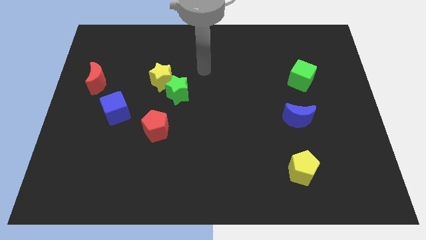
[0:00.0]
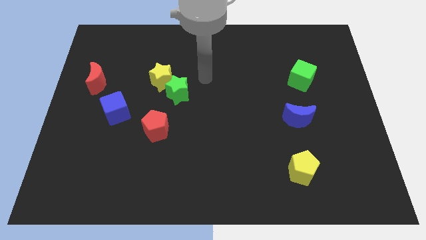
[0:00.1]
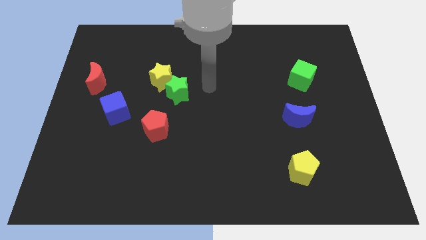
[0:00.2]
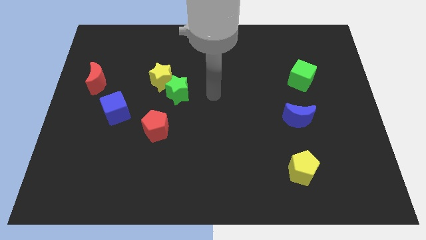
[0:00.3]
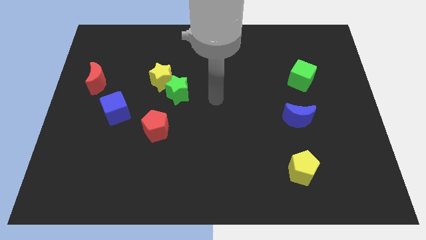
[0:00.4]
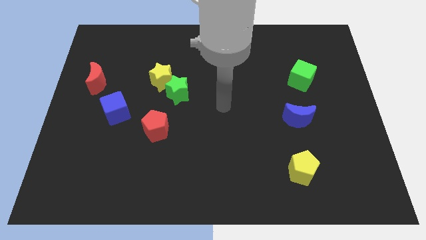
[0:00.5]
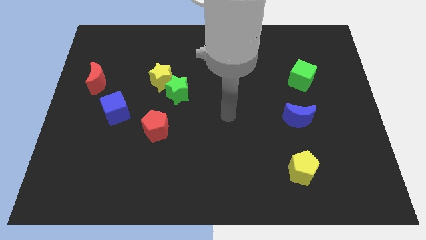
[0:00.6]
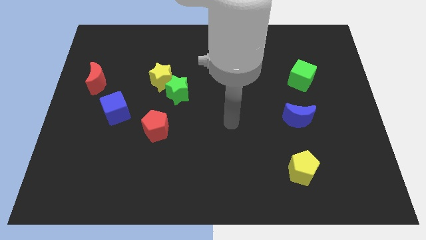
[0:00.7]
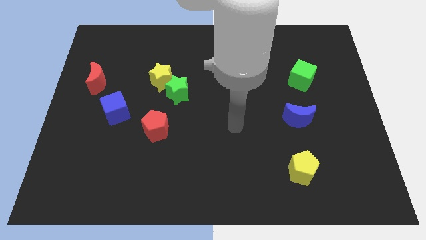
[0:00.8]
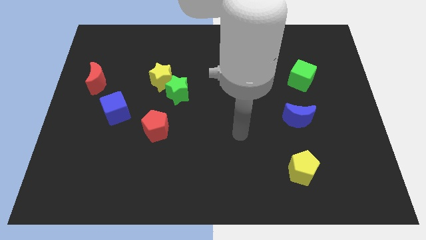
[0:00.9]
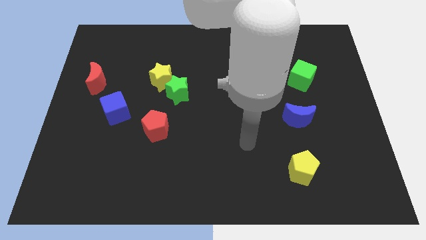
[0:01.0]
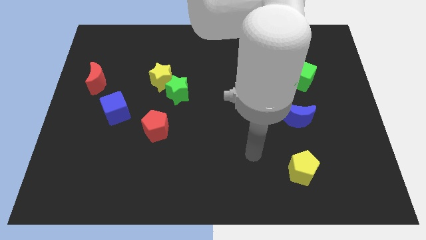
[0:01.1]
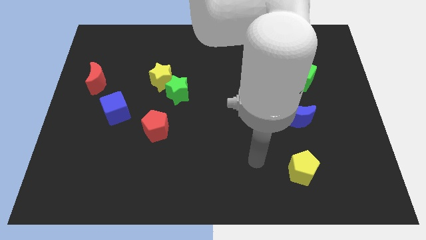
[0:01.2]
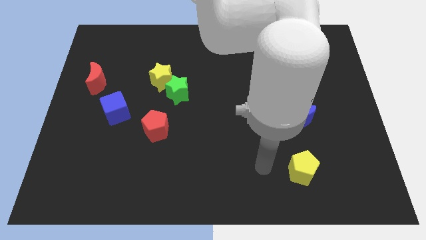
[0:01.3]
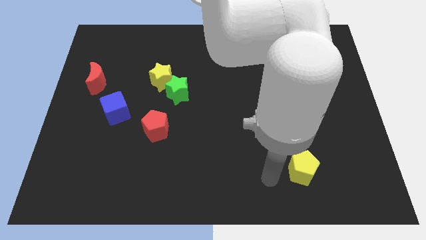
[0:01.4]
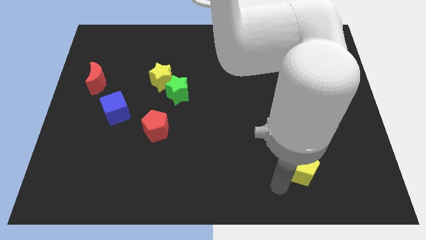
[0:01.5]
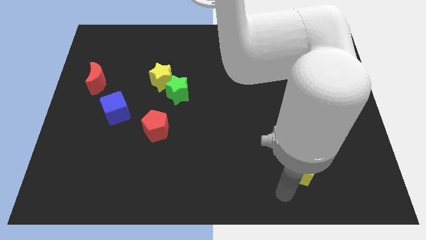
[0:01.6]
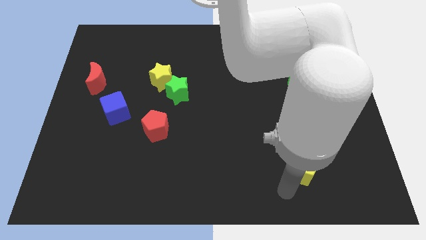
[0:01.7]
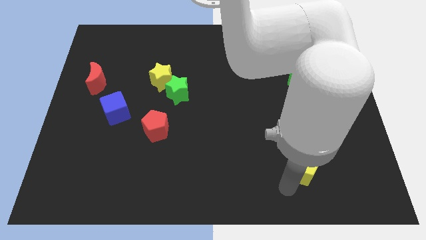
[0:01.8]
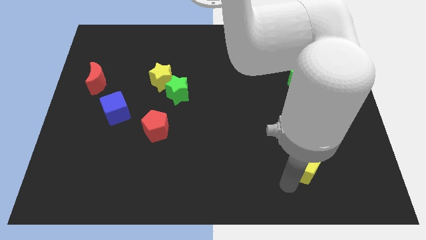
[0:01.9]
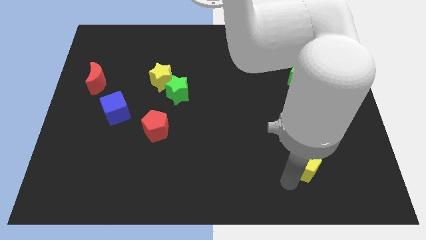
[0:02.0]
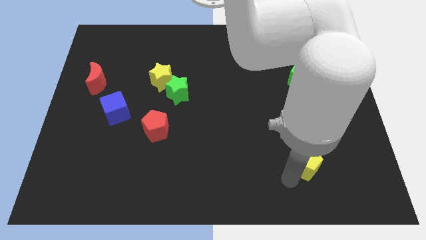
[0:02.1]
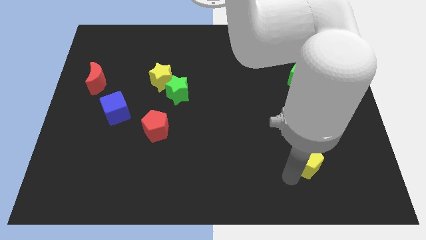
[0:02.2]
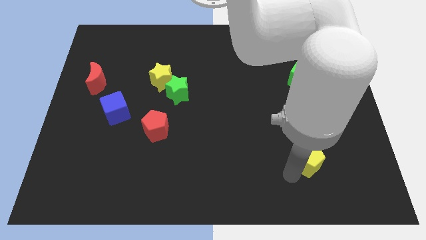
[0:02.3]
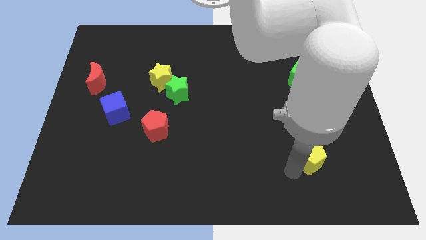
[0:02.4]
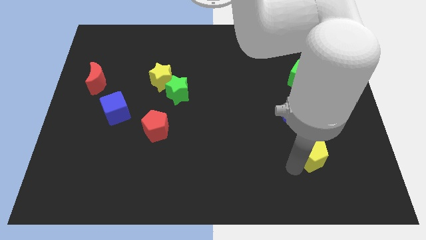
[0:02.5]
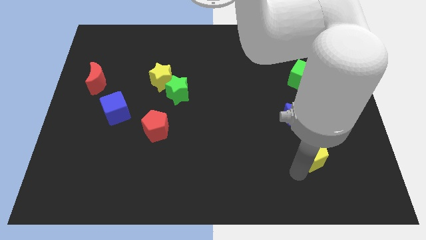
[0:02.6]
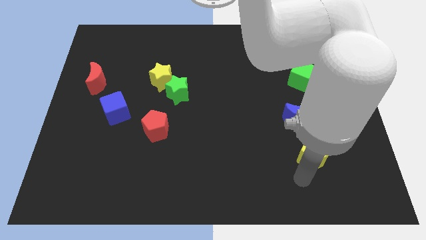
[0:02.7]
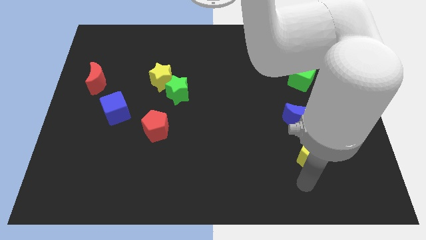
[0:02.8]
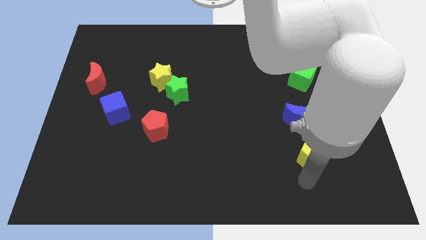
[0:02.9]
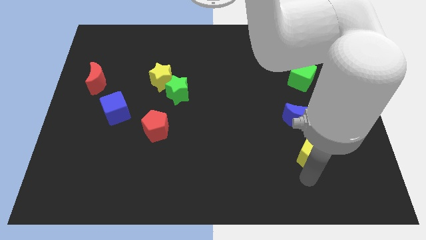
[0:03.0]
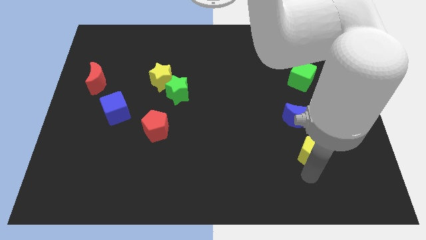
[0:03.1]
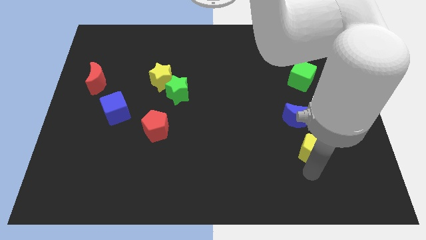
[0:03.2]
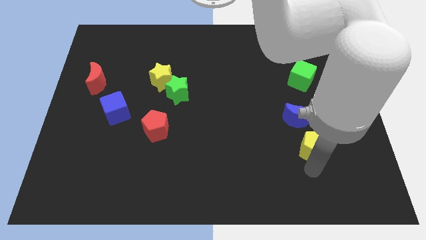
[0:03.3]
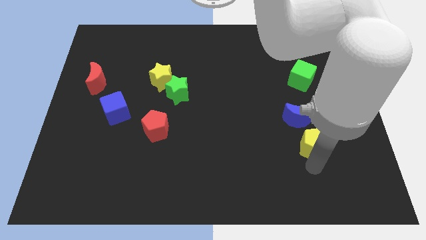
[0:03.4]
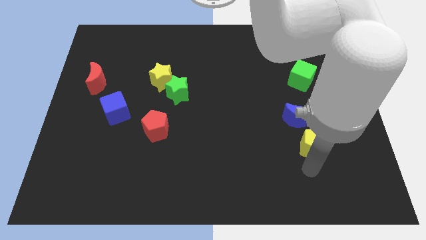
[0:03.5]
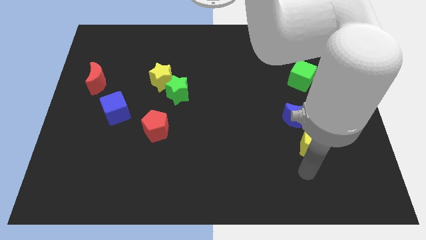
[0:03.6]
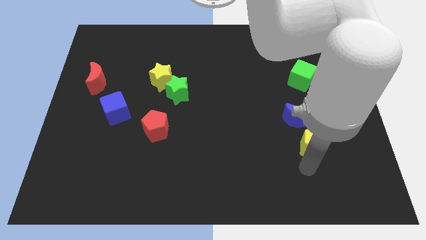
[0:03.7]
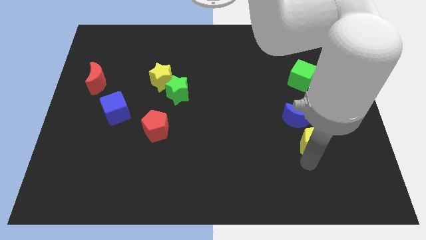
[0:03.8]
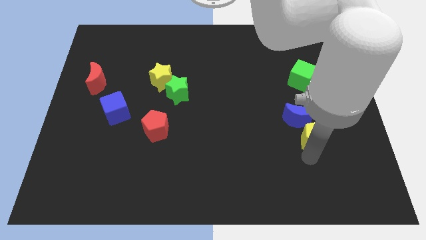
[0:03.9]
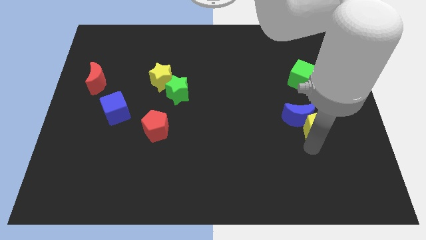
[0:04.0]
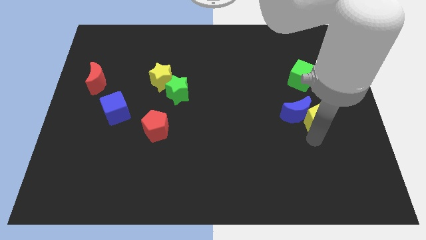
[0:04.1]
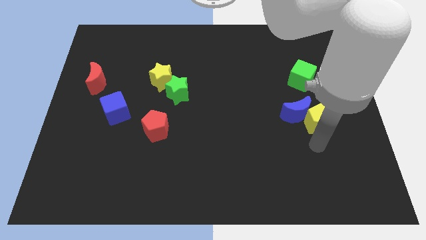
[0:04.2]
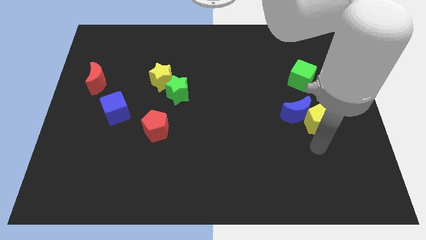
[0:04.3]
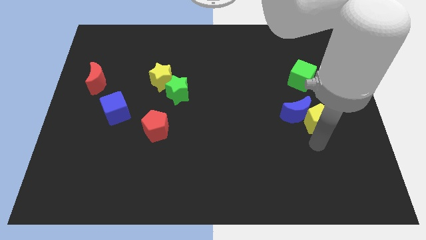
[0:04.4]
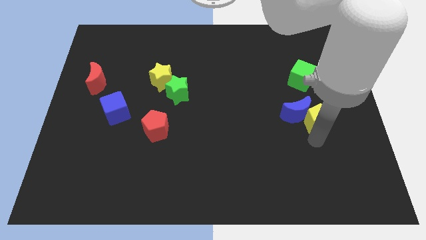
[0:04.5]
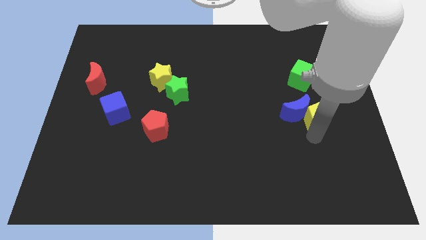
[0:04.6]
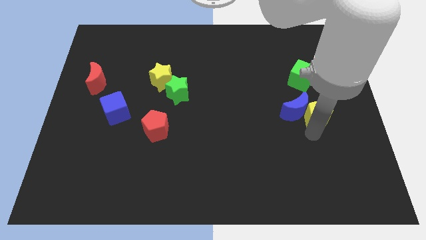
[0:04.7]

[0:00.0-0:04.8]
put the yellow pentagon to the top right of the blue moon

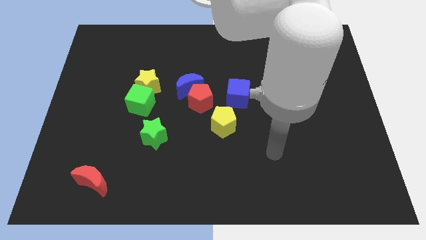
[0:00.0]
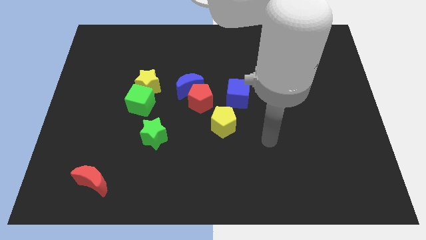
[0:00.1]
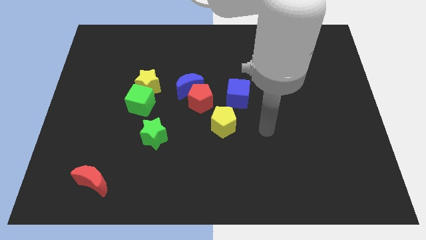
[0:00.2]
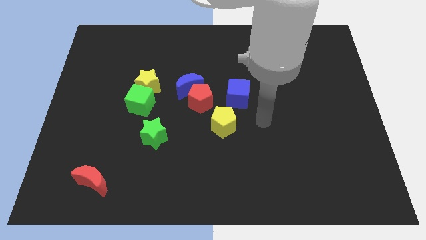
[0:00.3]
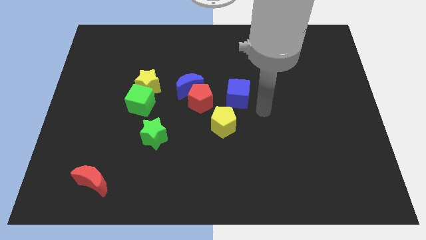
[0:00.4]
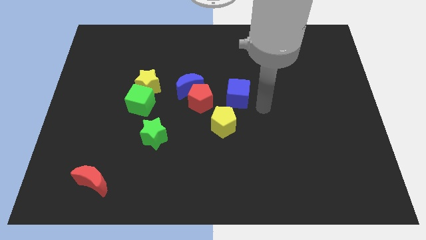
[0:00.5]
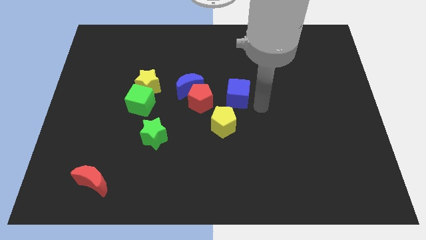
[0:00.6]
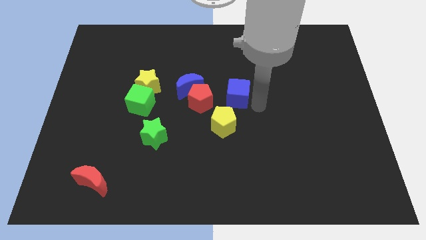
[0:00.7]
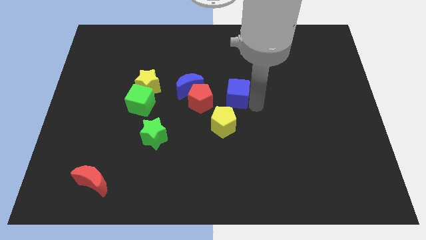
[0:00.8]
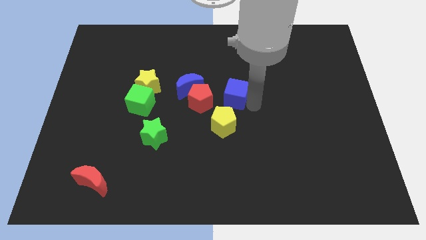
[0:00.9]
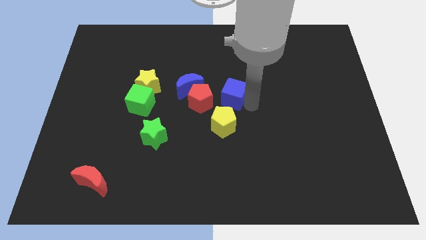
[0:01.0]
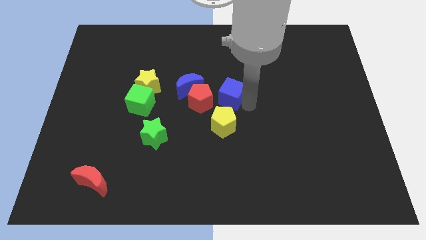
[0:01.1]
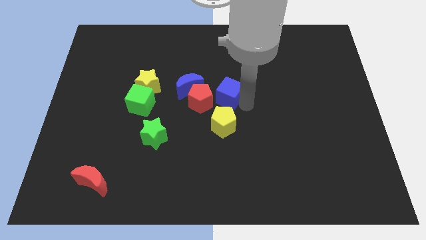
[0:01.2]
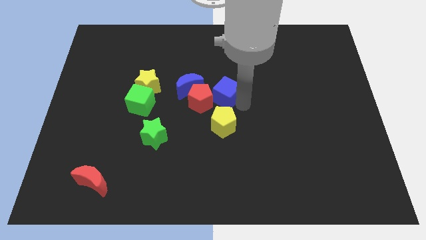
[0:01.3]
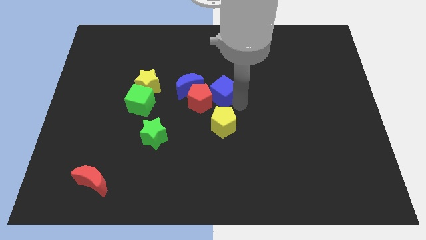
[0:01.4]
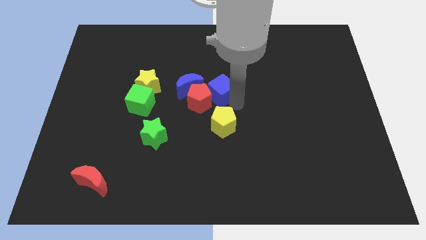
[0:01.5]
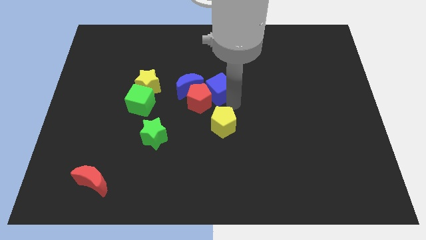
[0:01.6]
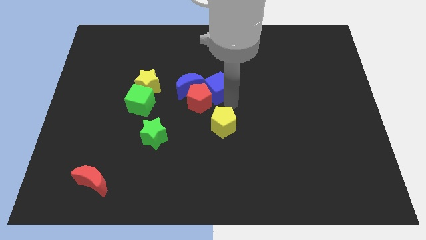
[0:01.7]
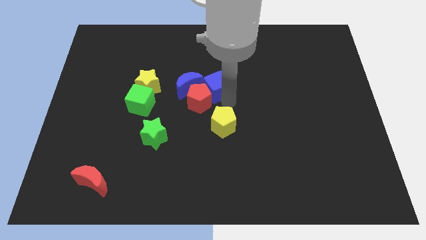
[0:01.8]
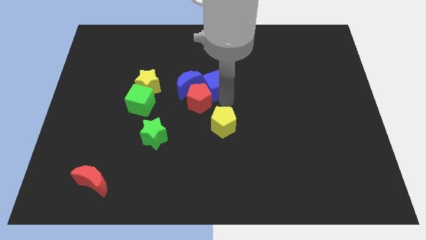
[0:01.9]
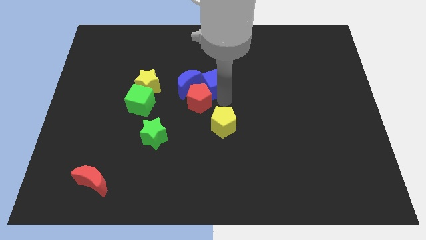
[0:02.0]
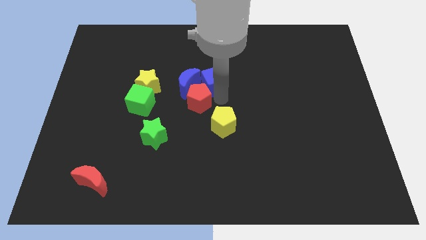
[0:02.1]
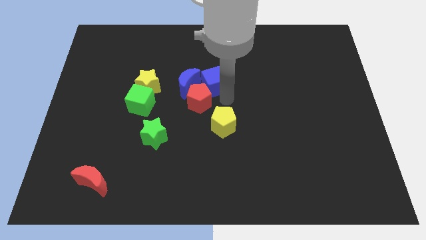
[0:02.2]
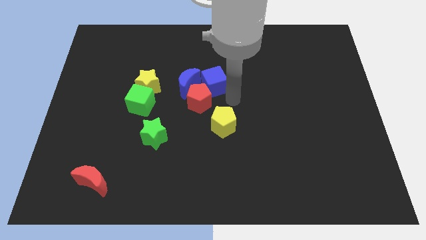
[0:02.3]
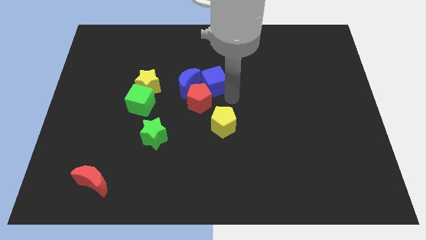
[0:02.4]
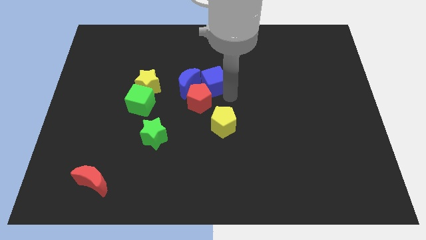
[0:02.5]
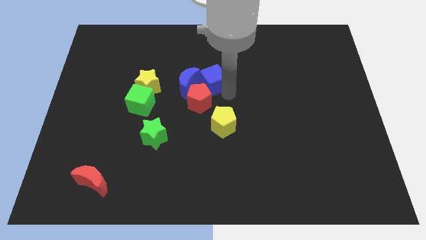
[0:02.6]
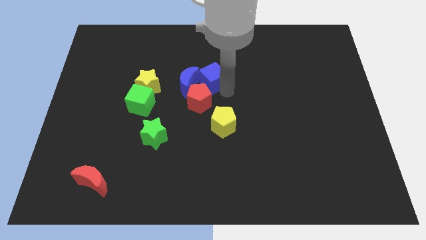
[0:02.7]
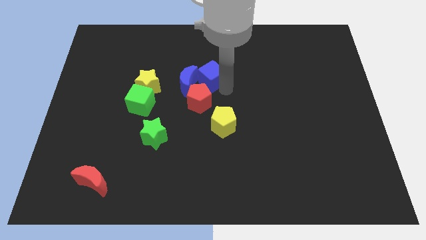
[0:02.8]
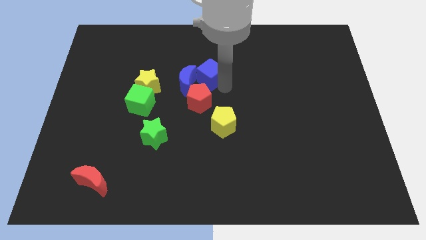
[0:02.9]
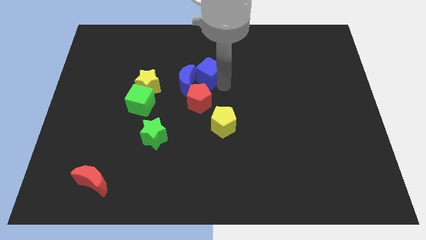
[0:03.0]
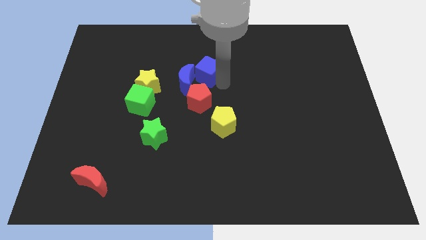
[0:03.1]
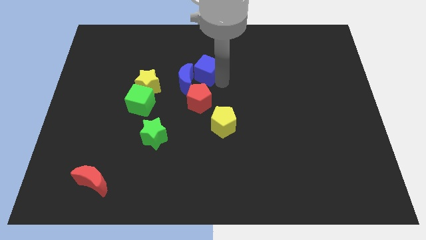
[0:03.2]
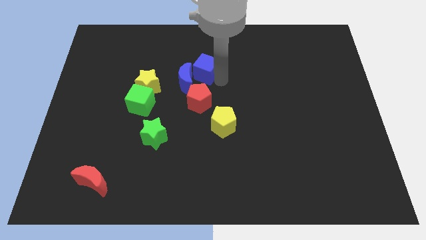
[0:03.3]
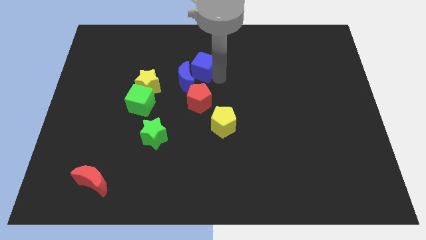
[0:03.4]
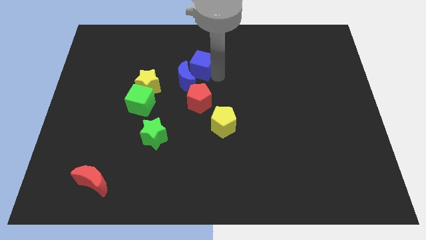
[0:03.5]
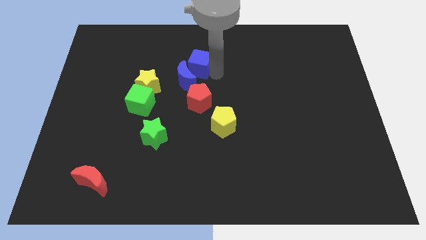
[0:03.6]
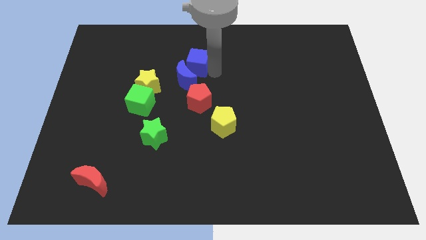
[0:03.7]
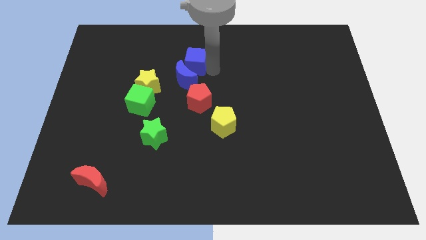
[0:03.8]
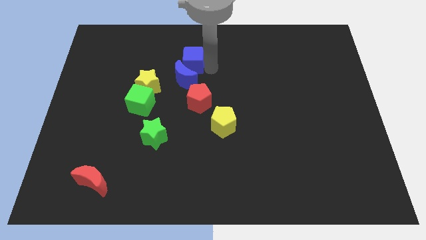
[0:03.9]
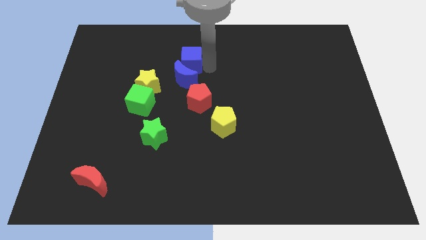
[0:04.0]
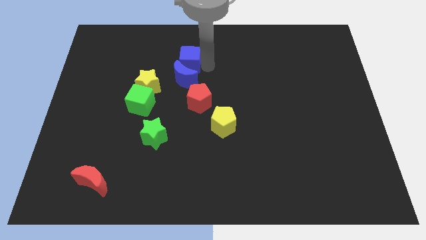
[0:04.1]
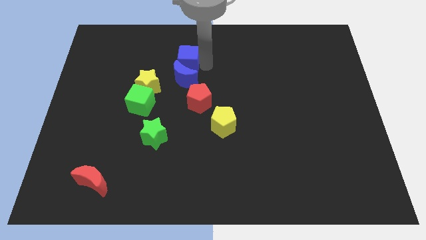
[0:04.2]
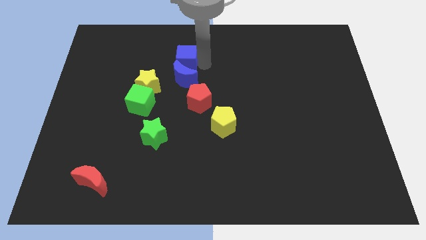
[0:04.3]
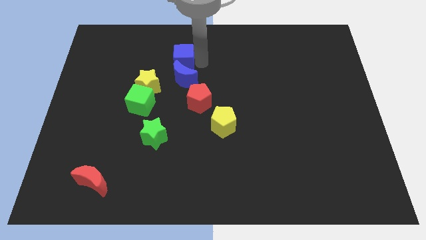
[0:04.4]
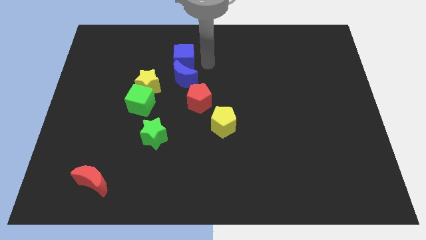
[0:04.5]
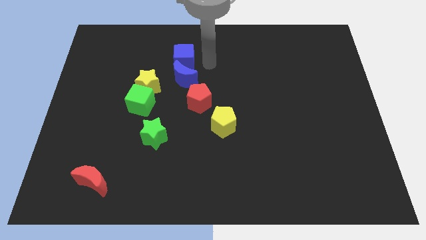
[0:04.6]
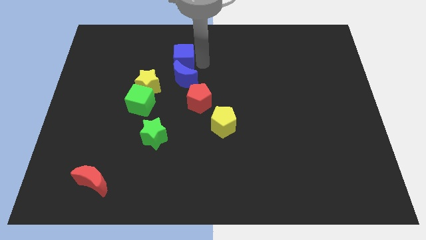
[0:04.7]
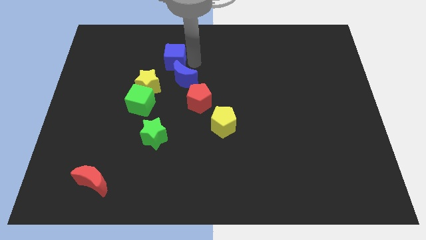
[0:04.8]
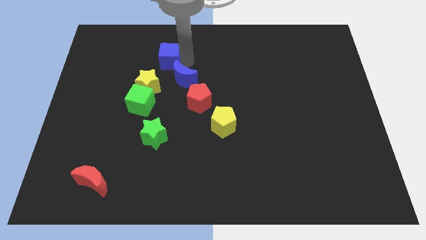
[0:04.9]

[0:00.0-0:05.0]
push the blue cube to the top side of the yellow star
